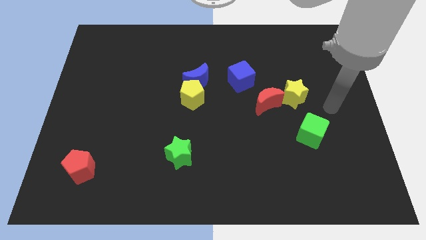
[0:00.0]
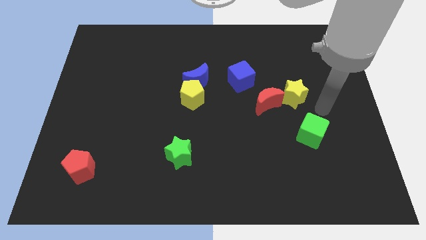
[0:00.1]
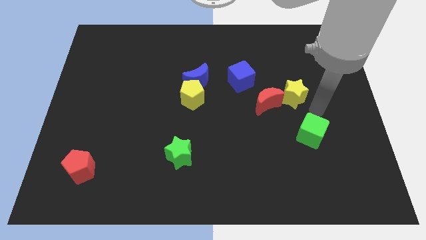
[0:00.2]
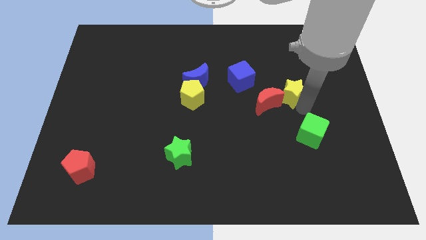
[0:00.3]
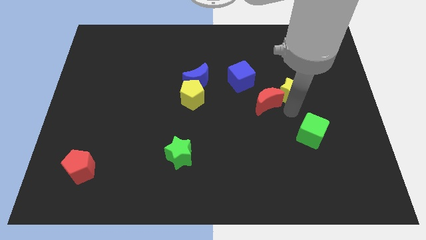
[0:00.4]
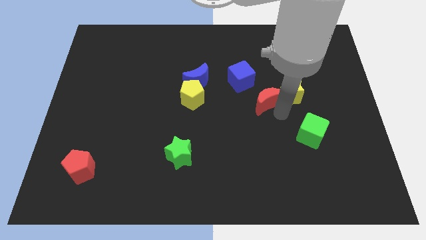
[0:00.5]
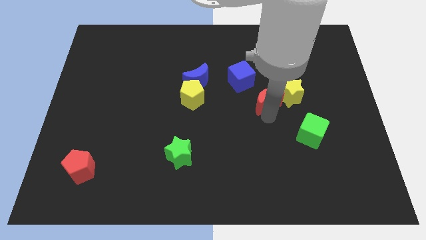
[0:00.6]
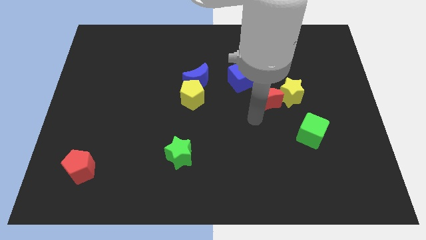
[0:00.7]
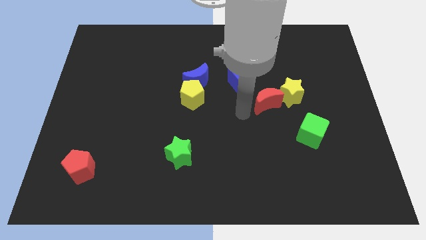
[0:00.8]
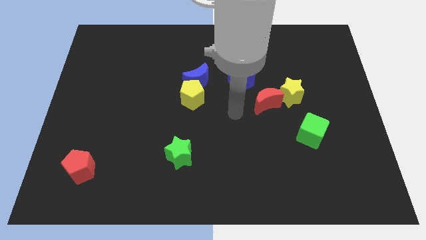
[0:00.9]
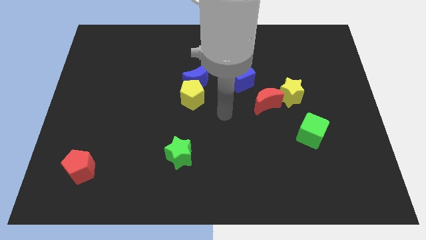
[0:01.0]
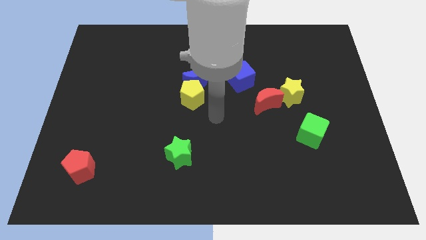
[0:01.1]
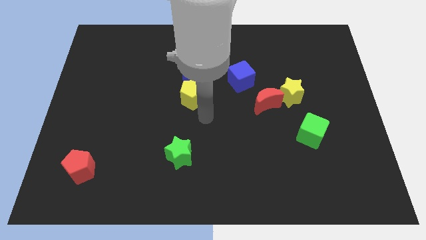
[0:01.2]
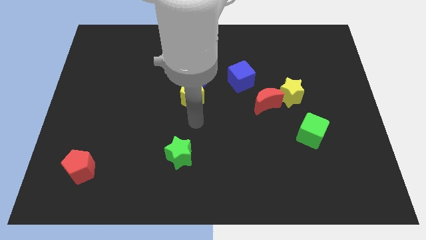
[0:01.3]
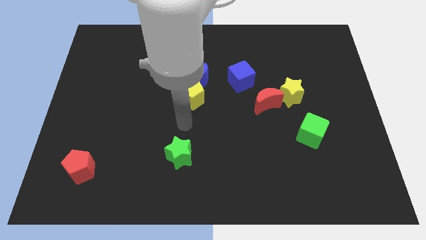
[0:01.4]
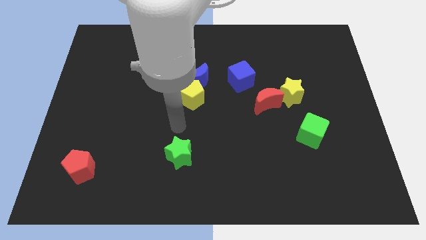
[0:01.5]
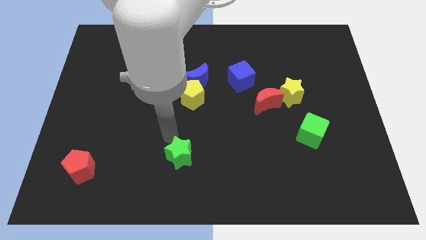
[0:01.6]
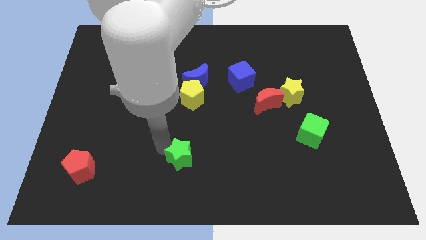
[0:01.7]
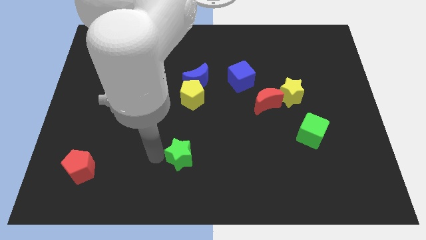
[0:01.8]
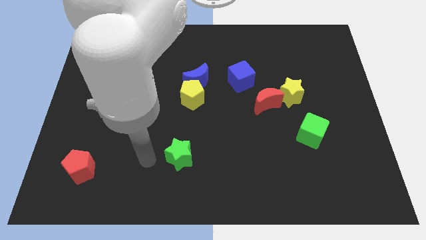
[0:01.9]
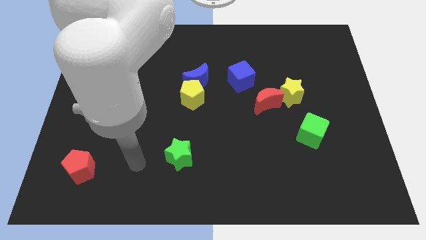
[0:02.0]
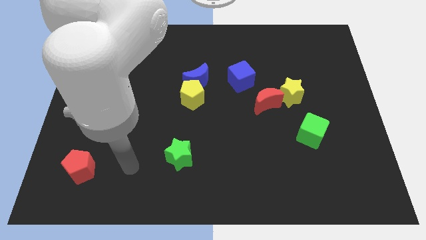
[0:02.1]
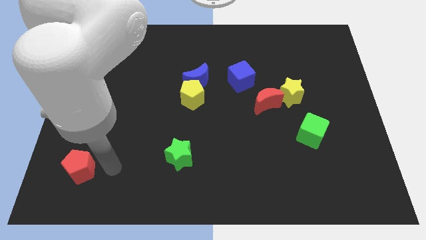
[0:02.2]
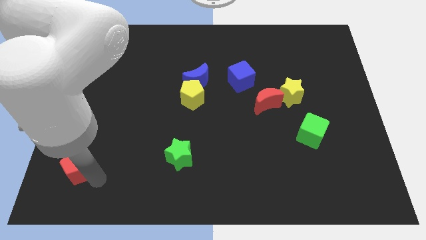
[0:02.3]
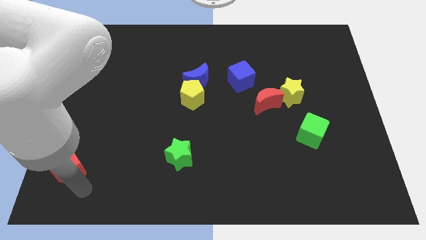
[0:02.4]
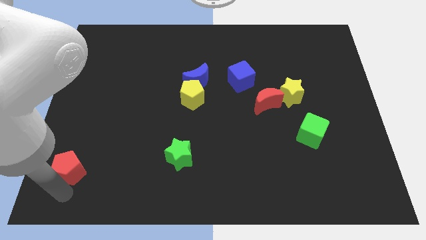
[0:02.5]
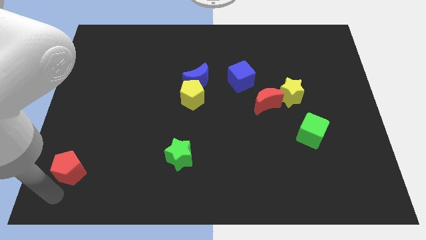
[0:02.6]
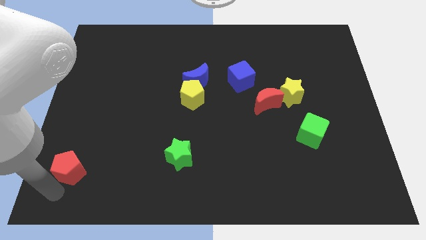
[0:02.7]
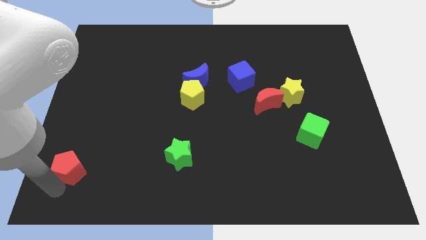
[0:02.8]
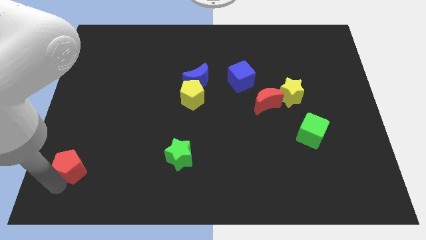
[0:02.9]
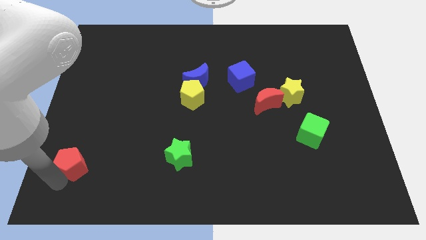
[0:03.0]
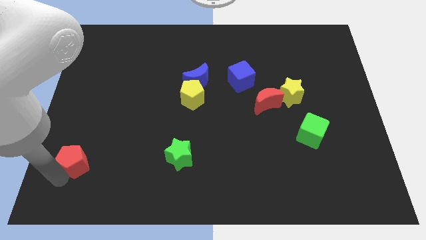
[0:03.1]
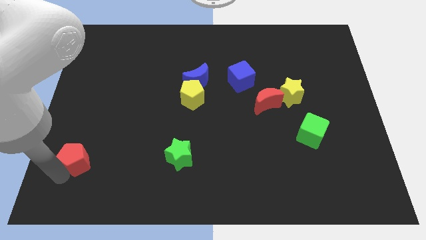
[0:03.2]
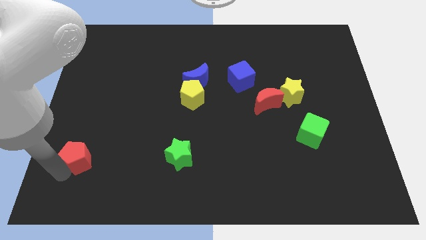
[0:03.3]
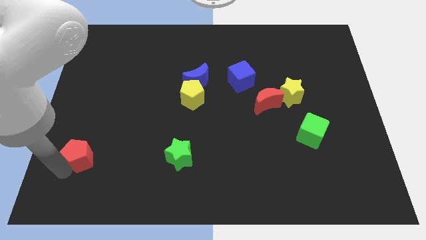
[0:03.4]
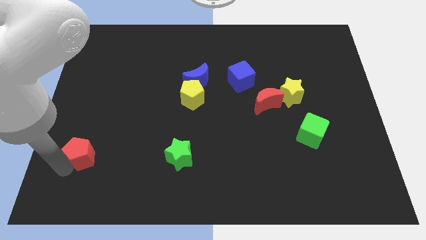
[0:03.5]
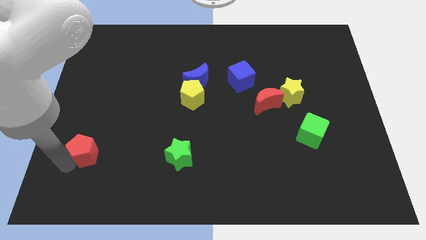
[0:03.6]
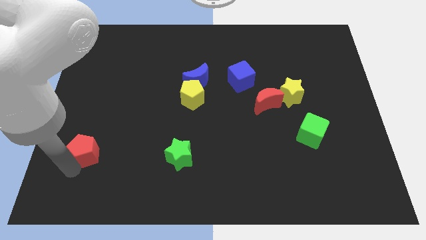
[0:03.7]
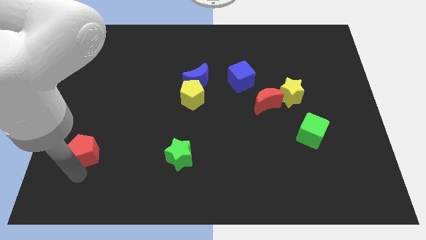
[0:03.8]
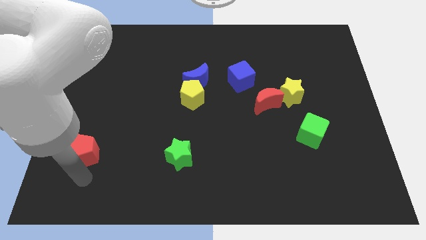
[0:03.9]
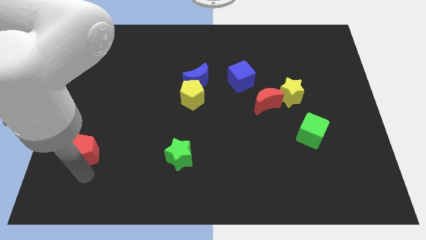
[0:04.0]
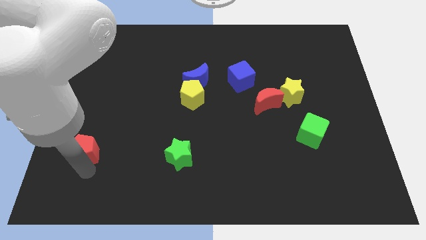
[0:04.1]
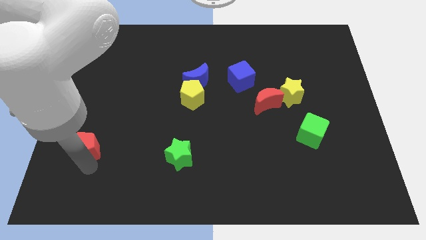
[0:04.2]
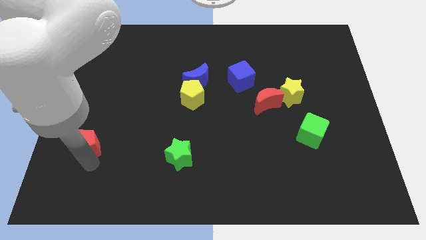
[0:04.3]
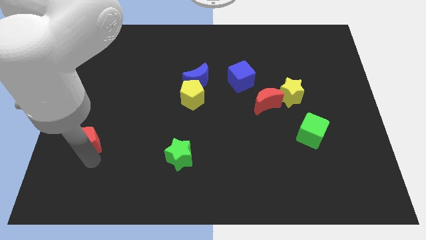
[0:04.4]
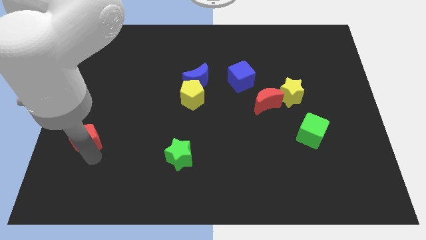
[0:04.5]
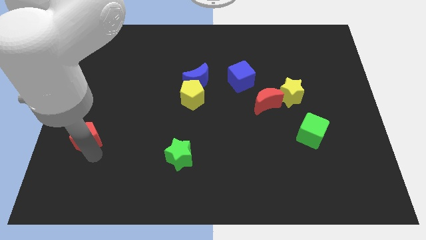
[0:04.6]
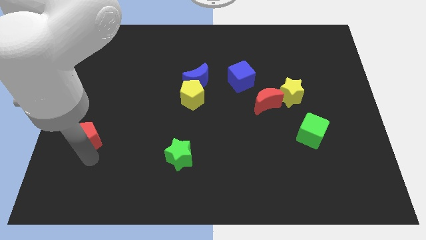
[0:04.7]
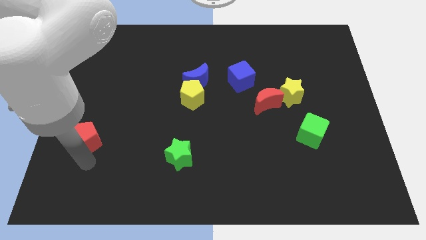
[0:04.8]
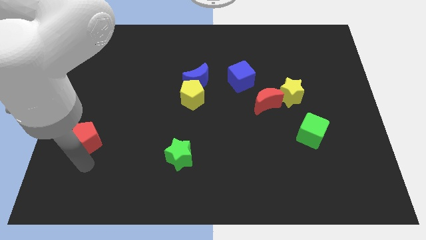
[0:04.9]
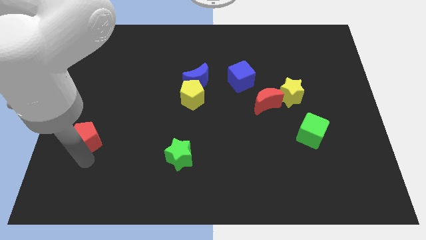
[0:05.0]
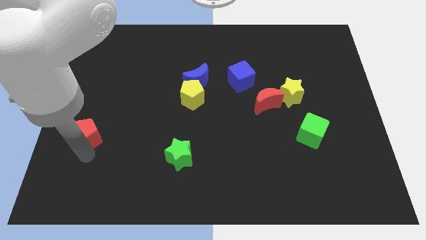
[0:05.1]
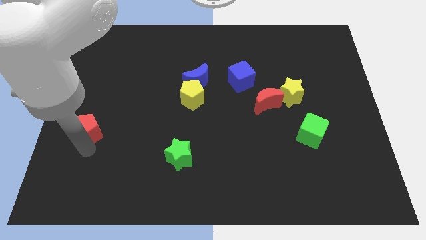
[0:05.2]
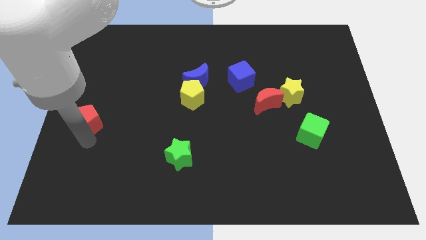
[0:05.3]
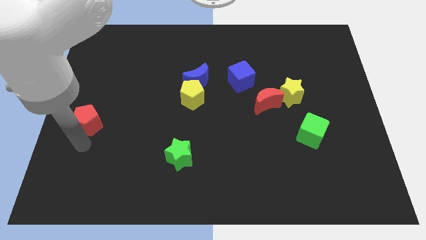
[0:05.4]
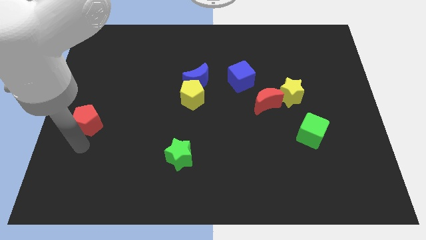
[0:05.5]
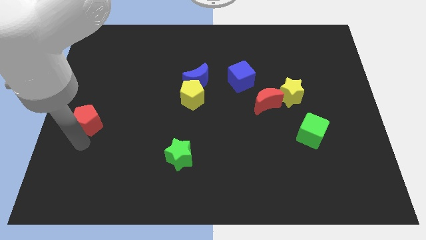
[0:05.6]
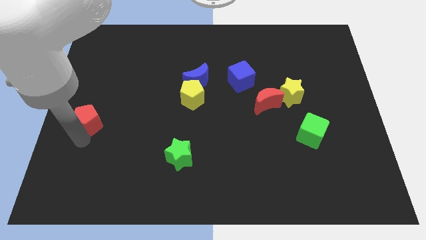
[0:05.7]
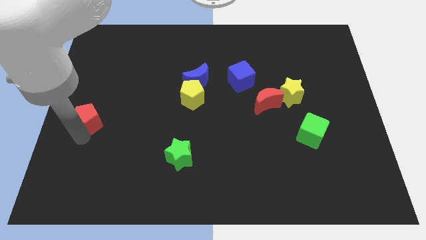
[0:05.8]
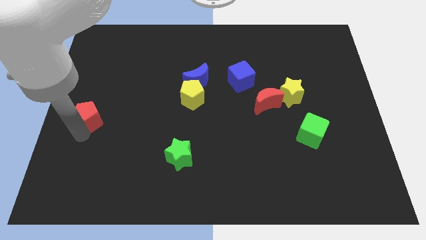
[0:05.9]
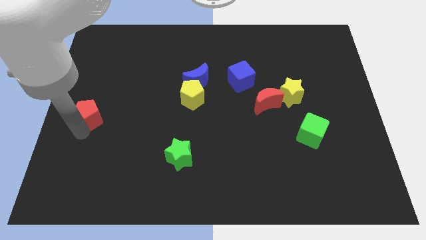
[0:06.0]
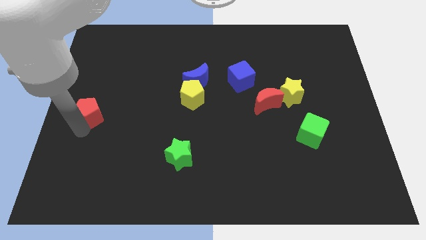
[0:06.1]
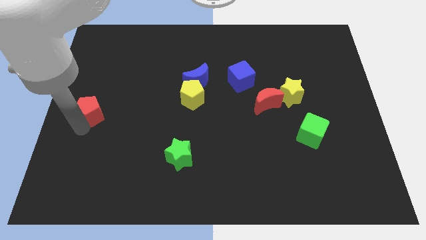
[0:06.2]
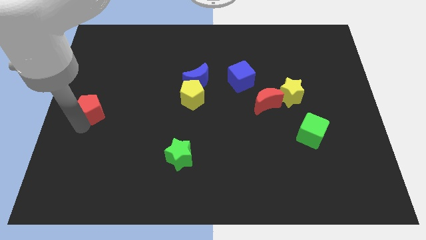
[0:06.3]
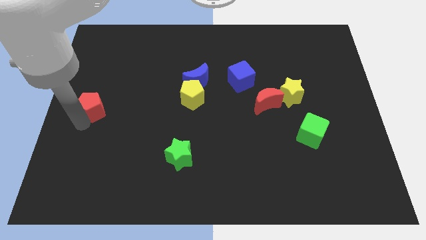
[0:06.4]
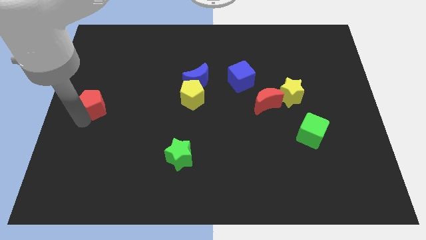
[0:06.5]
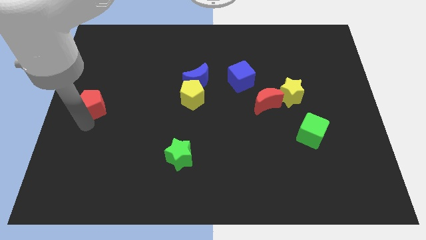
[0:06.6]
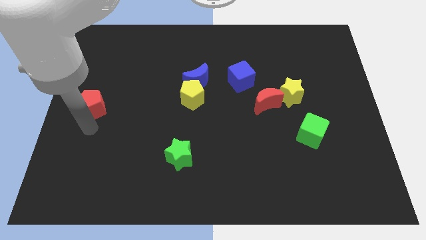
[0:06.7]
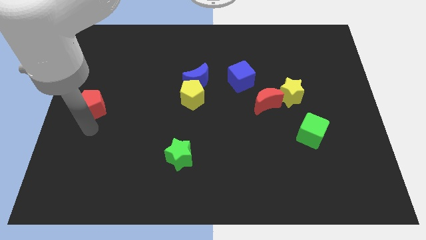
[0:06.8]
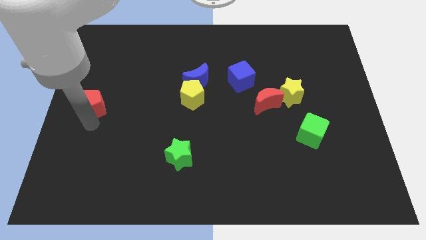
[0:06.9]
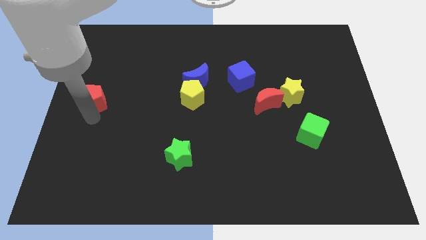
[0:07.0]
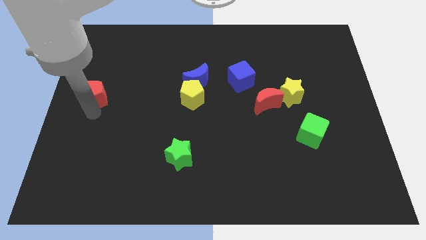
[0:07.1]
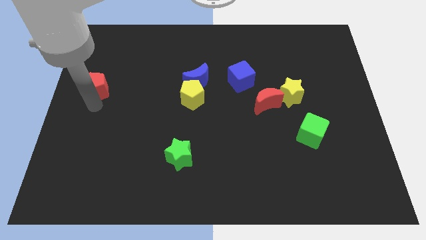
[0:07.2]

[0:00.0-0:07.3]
move the red pentagon upwards

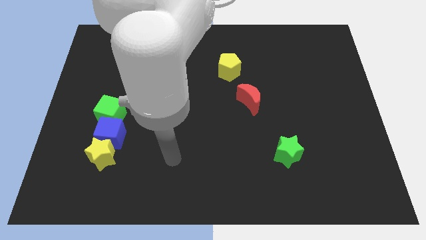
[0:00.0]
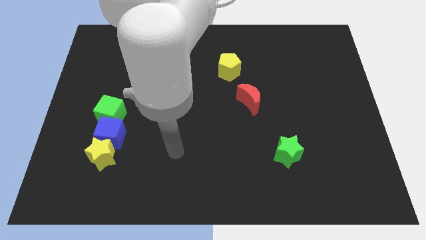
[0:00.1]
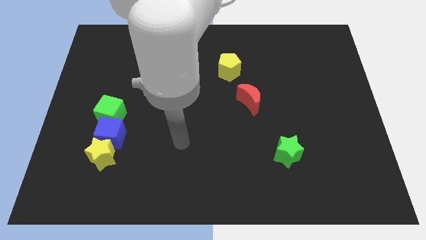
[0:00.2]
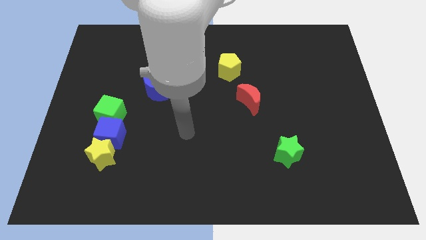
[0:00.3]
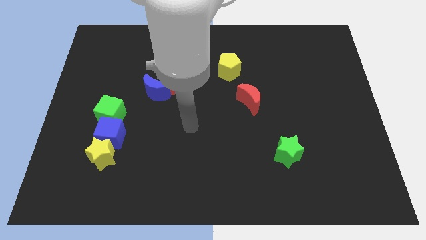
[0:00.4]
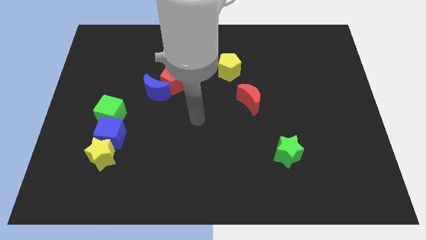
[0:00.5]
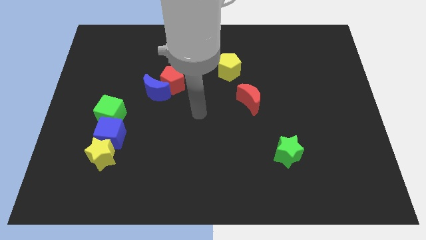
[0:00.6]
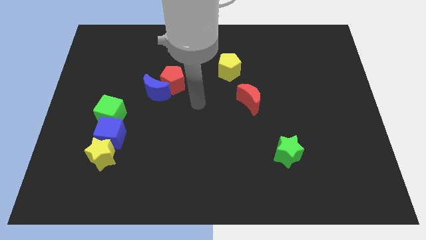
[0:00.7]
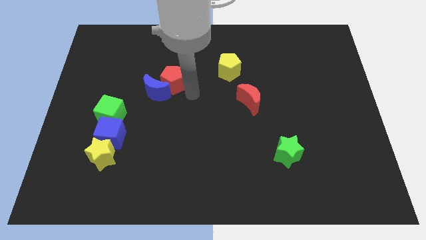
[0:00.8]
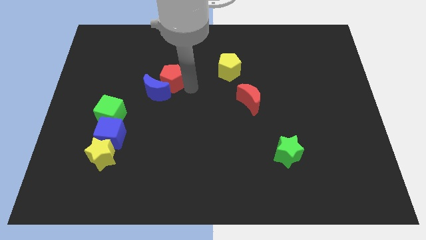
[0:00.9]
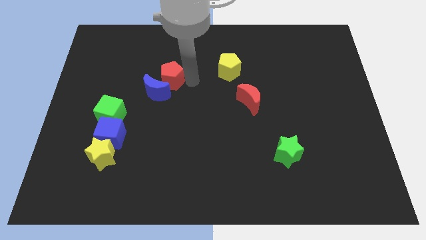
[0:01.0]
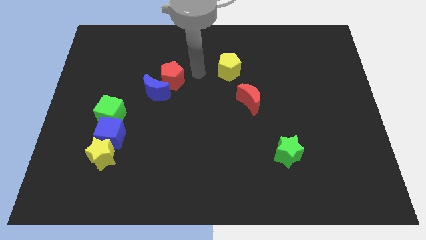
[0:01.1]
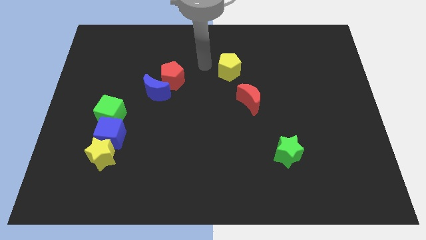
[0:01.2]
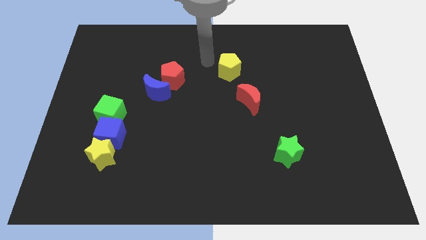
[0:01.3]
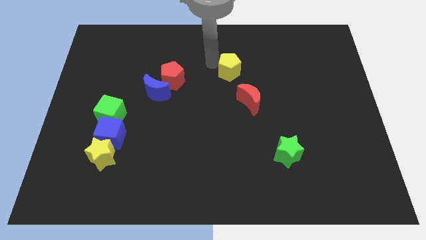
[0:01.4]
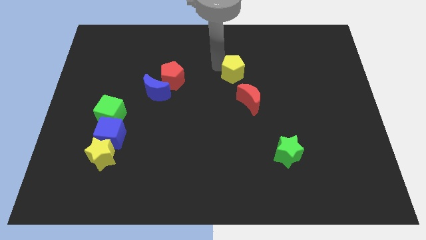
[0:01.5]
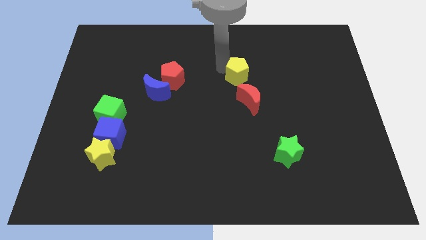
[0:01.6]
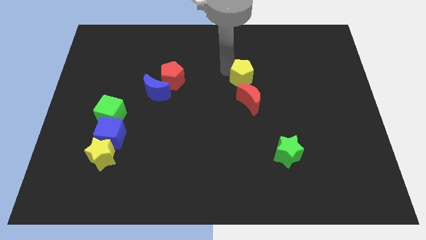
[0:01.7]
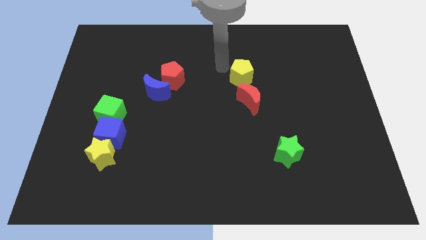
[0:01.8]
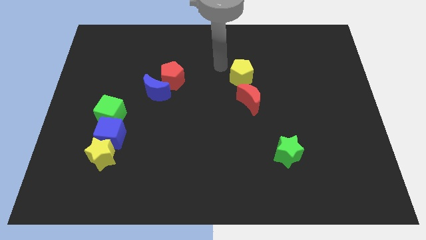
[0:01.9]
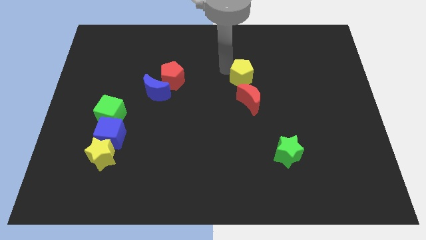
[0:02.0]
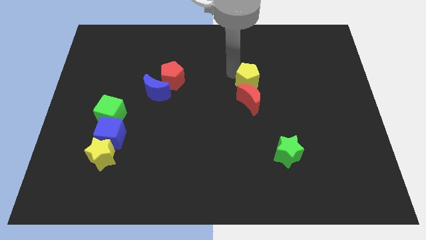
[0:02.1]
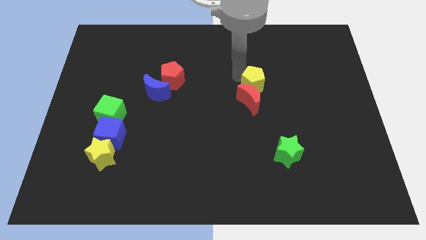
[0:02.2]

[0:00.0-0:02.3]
push the yellow pentagon downwards and then to the right a little bit
